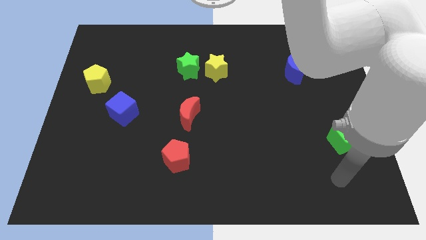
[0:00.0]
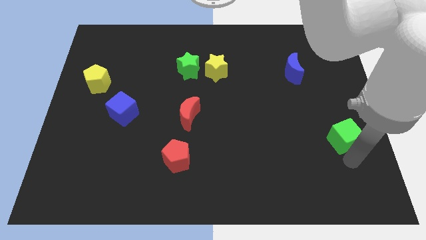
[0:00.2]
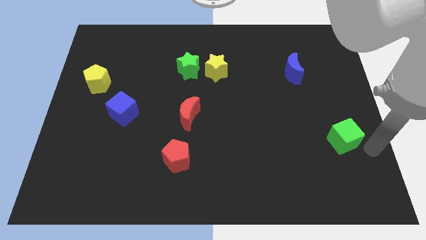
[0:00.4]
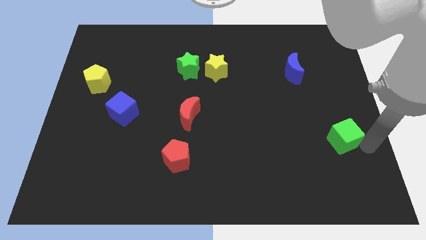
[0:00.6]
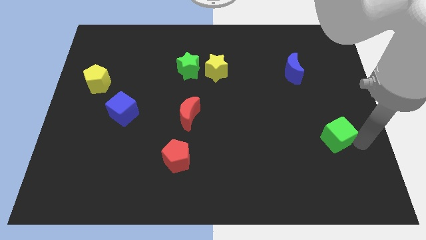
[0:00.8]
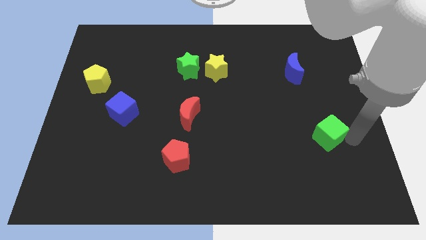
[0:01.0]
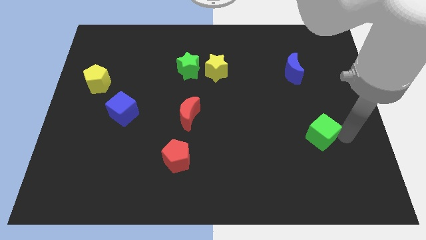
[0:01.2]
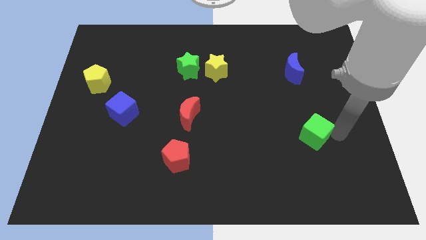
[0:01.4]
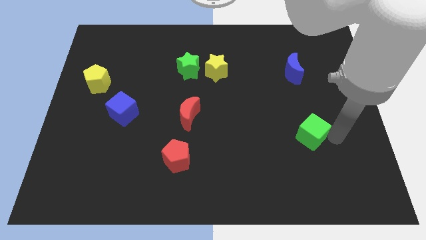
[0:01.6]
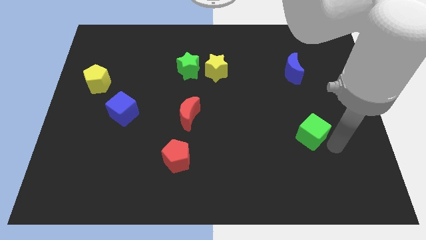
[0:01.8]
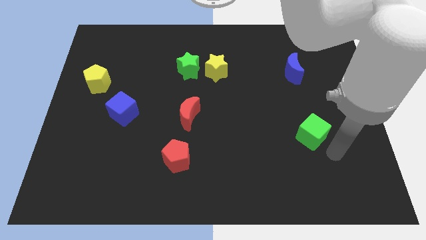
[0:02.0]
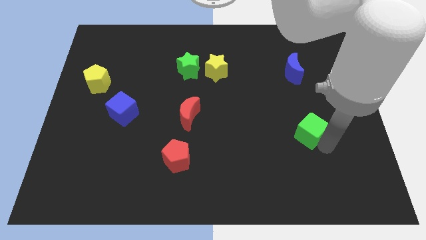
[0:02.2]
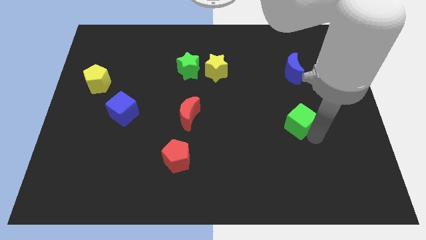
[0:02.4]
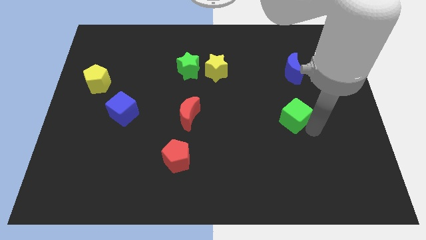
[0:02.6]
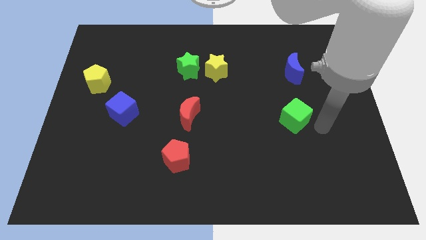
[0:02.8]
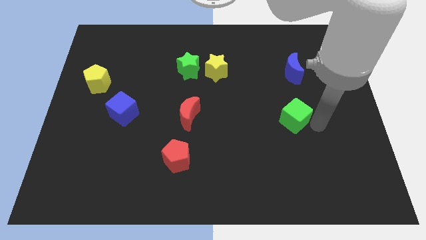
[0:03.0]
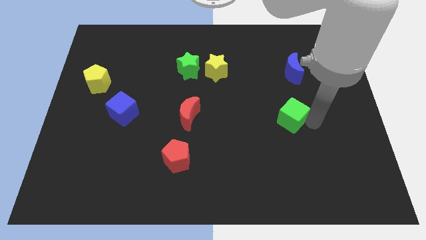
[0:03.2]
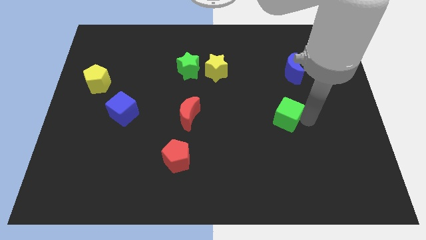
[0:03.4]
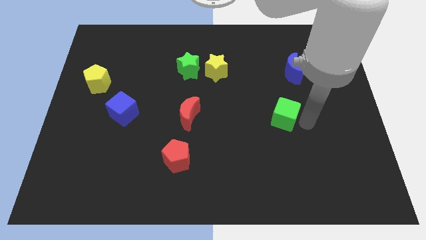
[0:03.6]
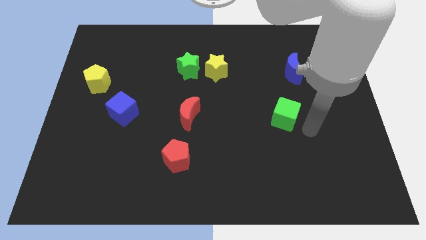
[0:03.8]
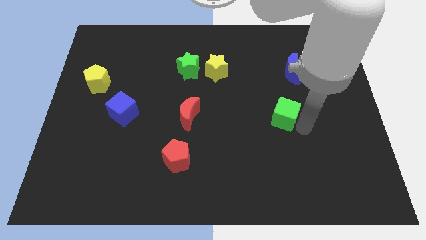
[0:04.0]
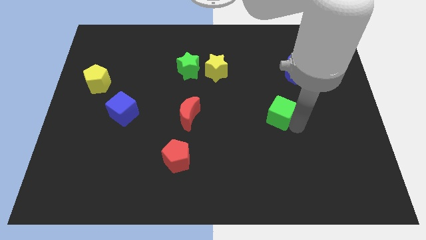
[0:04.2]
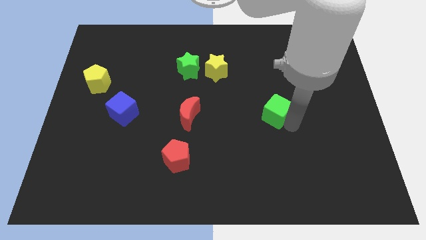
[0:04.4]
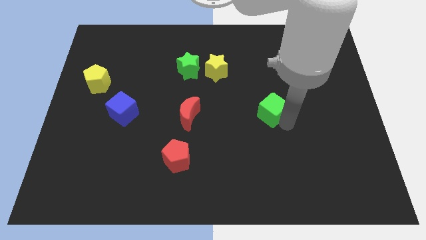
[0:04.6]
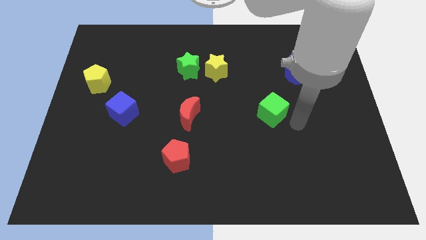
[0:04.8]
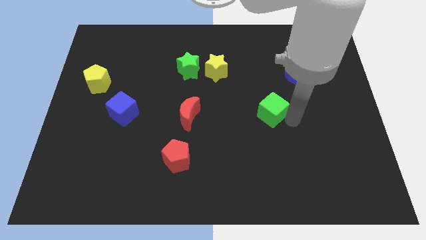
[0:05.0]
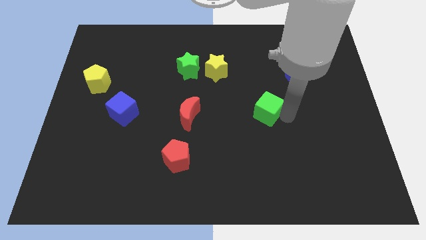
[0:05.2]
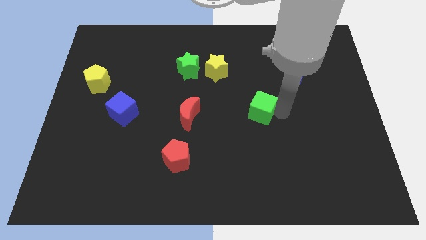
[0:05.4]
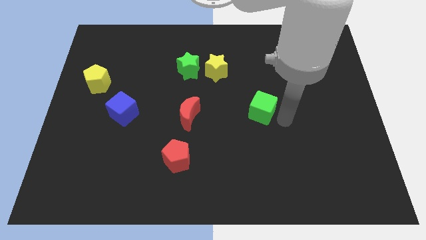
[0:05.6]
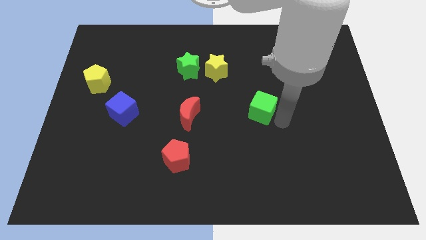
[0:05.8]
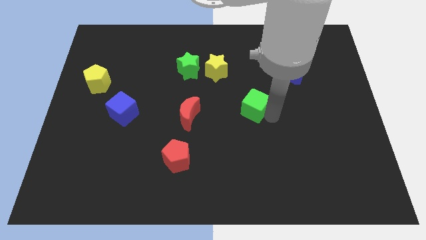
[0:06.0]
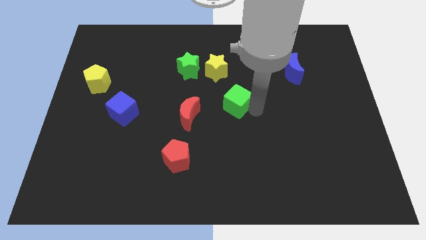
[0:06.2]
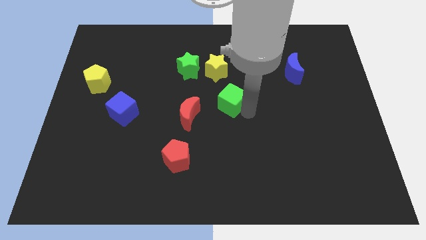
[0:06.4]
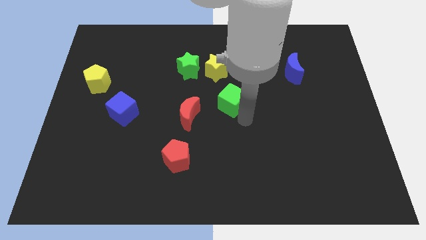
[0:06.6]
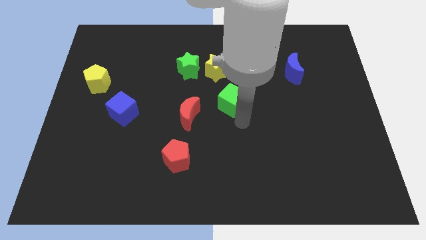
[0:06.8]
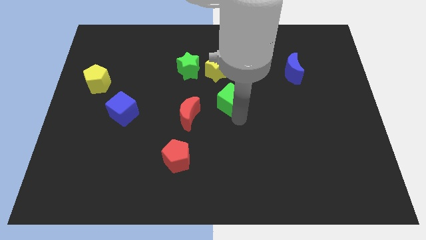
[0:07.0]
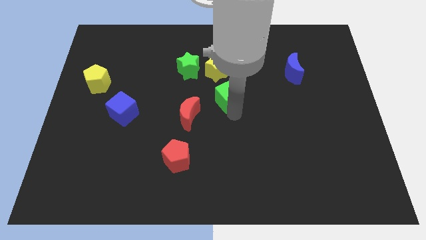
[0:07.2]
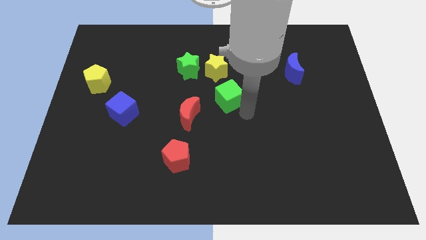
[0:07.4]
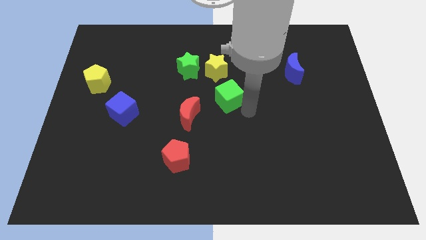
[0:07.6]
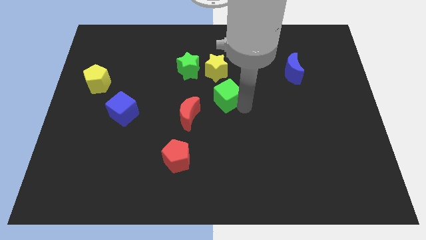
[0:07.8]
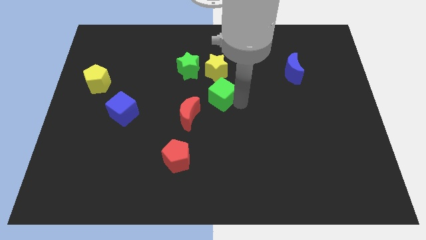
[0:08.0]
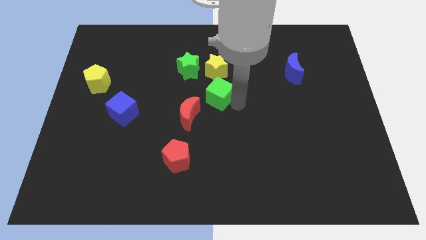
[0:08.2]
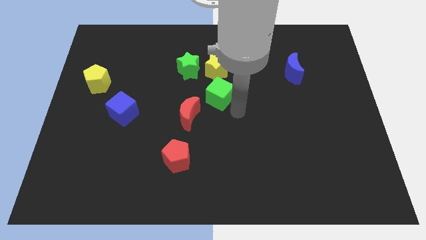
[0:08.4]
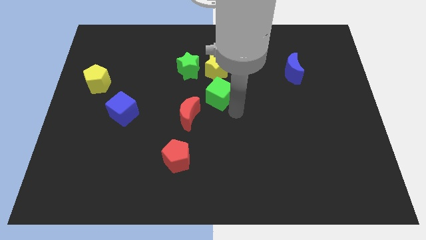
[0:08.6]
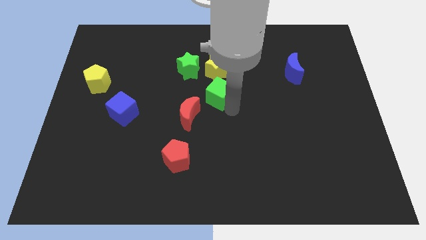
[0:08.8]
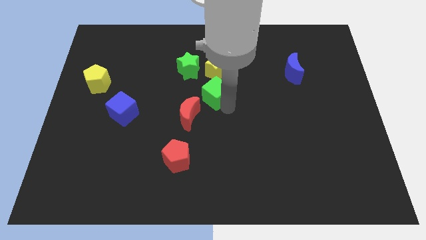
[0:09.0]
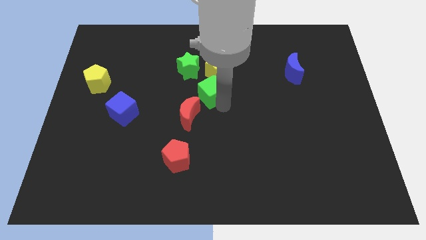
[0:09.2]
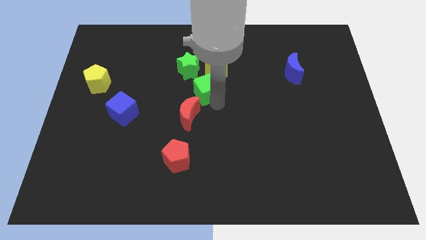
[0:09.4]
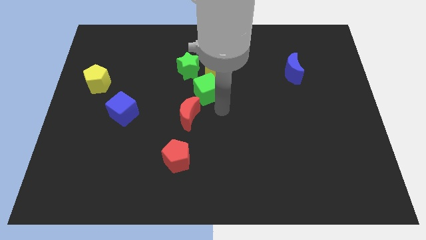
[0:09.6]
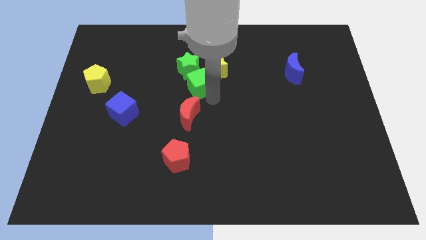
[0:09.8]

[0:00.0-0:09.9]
move the green cube close to the green star

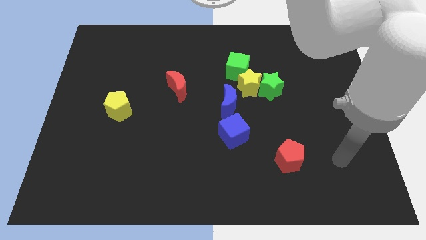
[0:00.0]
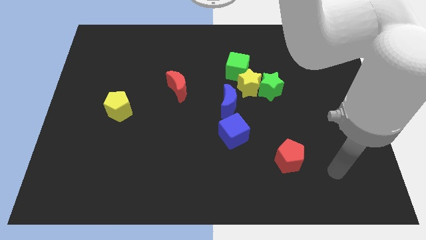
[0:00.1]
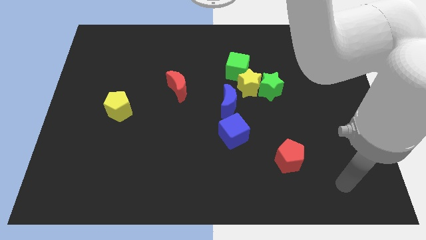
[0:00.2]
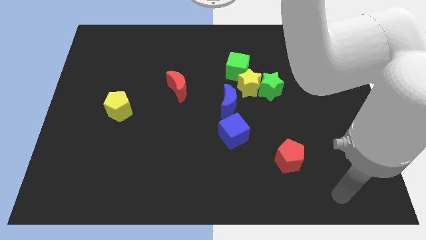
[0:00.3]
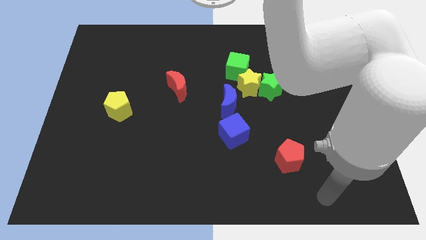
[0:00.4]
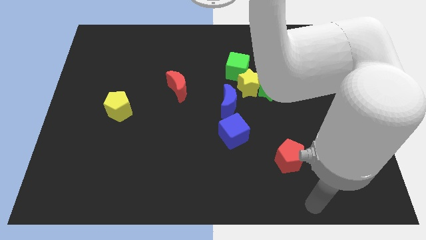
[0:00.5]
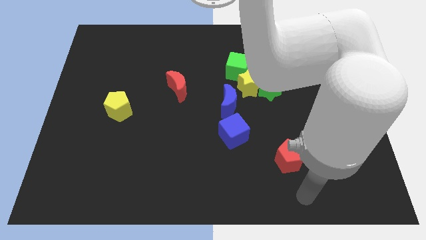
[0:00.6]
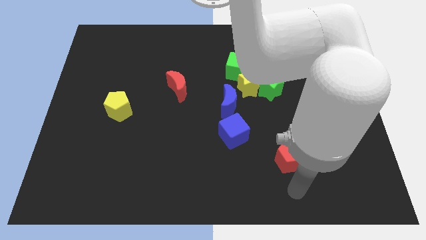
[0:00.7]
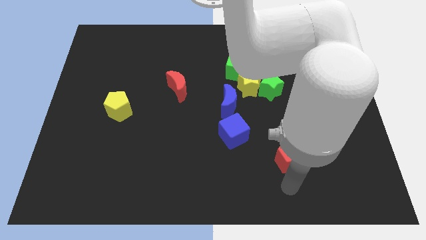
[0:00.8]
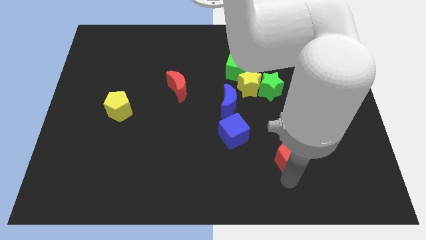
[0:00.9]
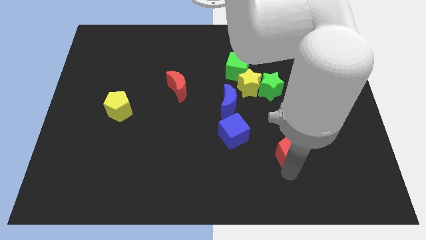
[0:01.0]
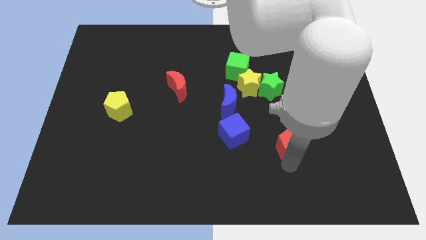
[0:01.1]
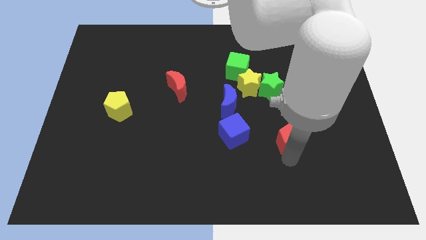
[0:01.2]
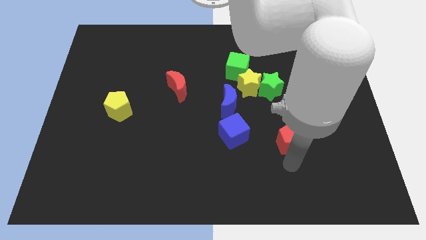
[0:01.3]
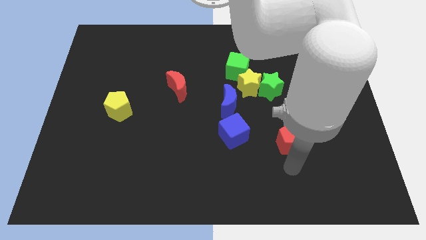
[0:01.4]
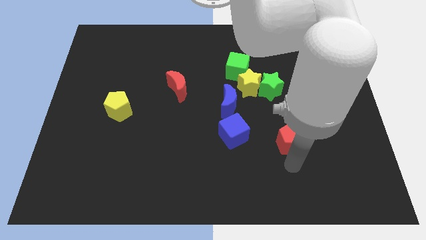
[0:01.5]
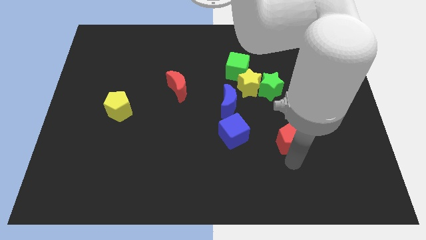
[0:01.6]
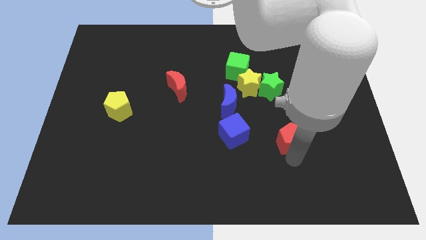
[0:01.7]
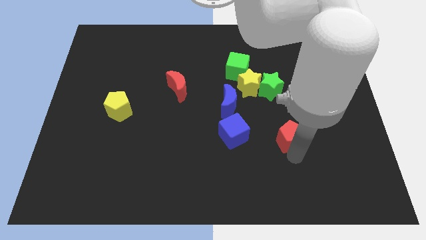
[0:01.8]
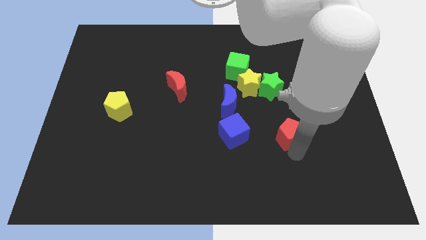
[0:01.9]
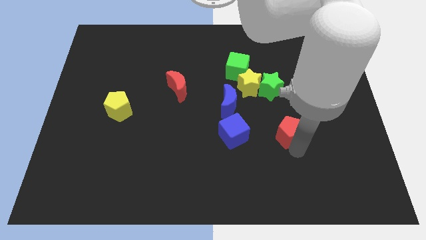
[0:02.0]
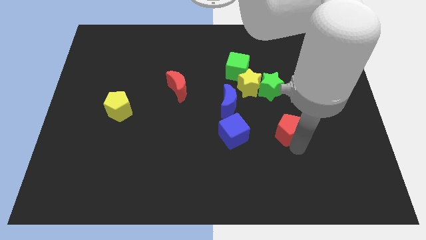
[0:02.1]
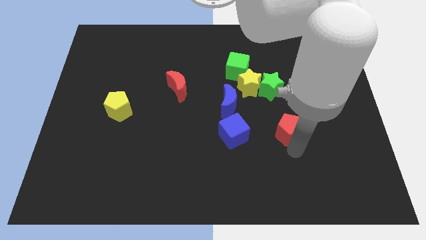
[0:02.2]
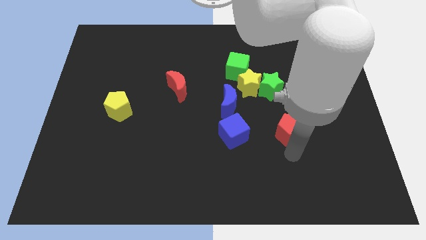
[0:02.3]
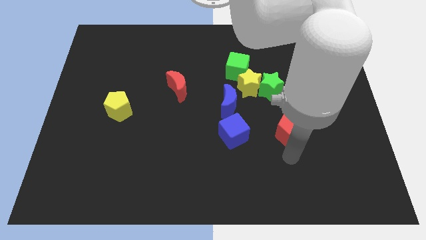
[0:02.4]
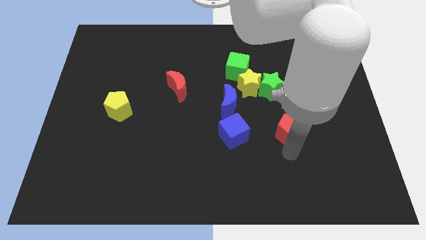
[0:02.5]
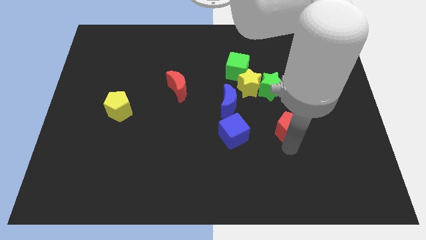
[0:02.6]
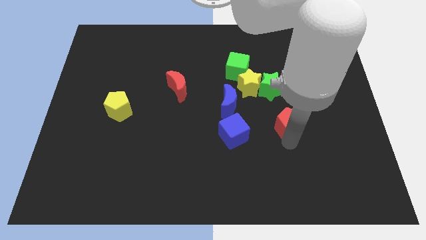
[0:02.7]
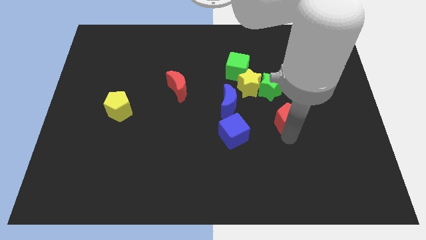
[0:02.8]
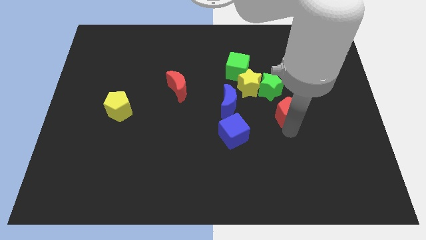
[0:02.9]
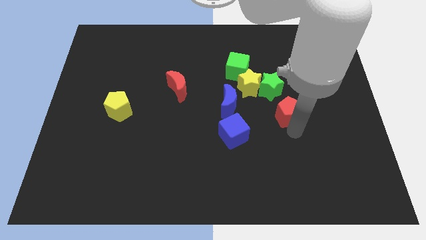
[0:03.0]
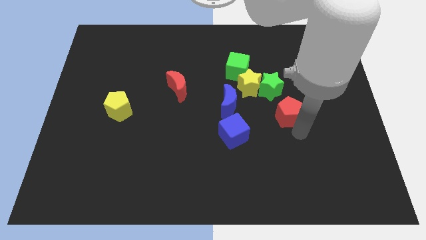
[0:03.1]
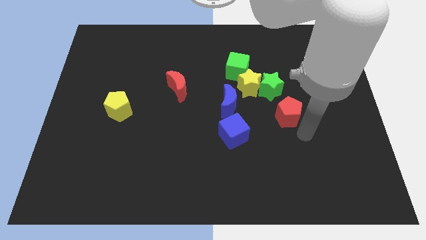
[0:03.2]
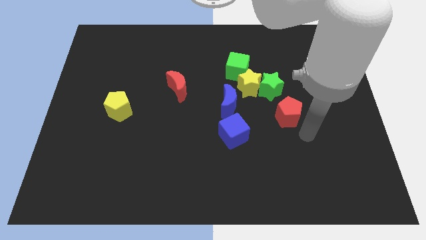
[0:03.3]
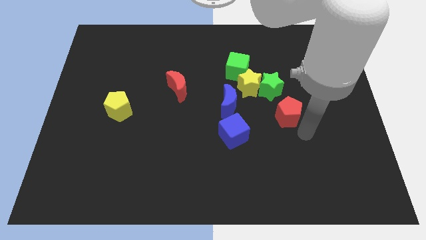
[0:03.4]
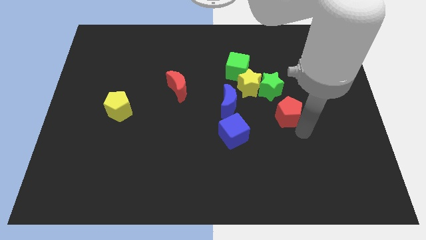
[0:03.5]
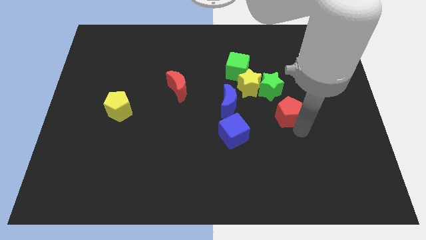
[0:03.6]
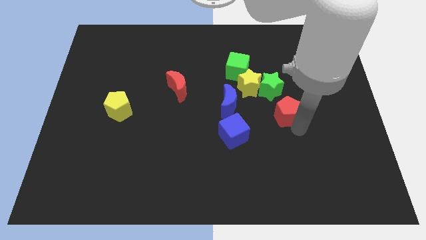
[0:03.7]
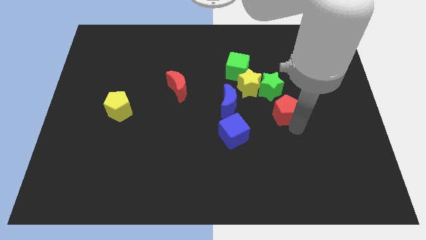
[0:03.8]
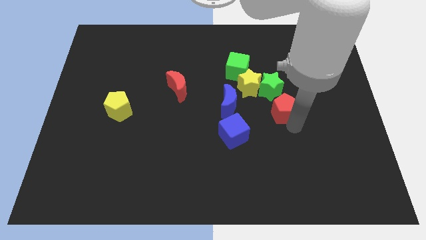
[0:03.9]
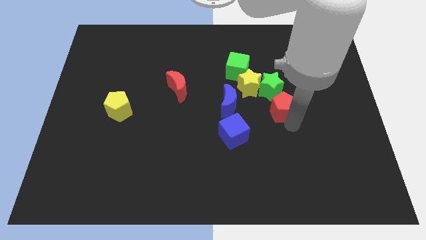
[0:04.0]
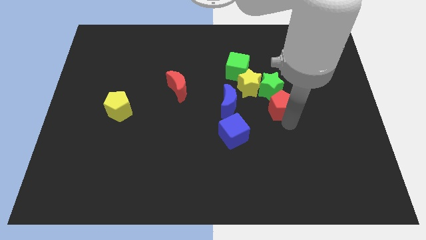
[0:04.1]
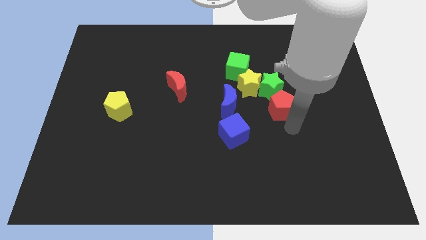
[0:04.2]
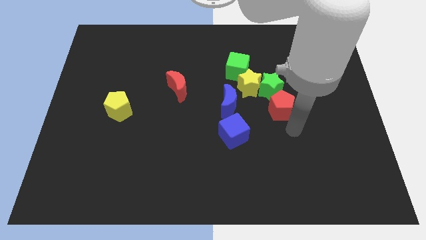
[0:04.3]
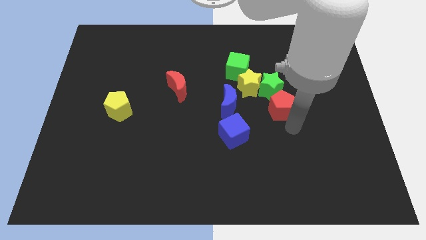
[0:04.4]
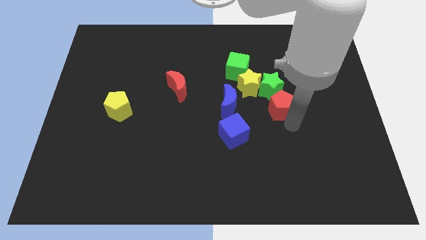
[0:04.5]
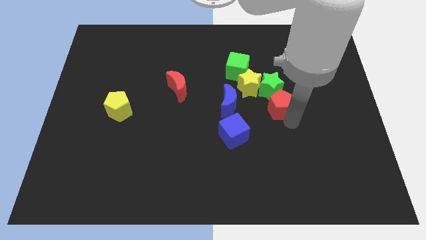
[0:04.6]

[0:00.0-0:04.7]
slide the red pentagon next to the green star
